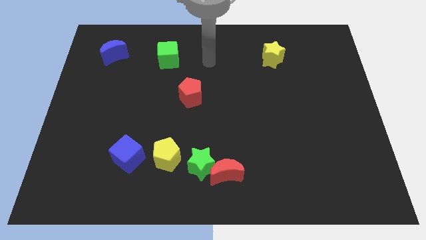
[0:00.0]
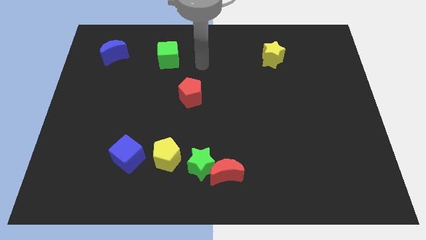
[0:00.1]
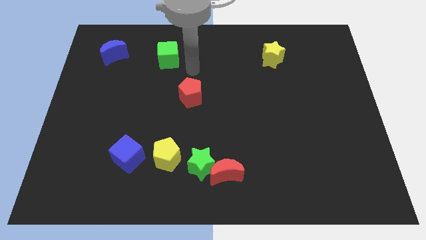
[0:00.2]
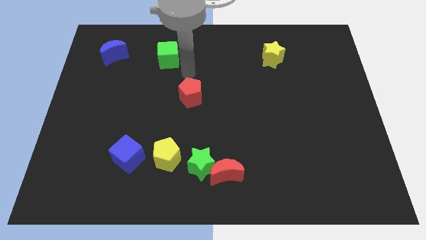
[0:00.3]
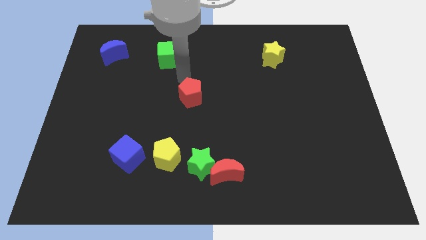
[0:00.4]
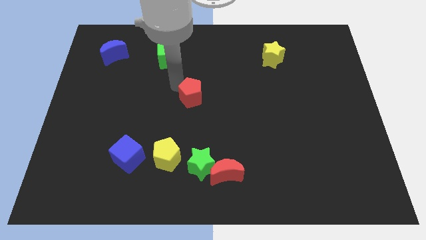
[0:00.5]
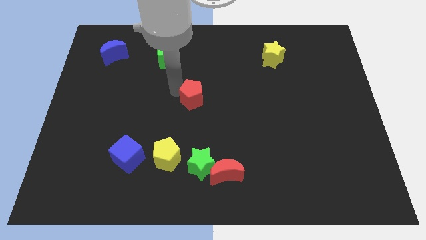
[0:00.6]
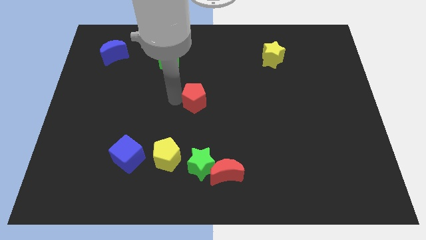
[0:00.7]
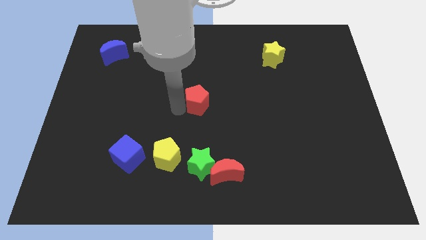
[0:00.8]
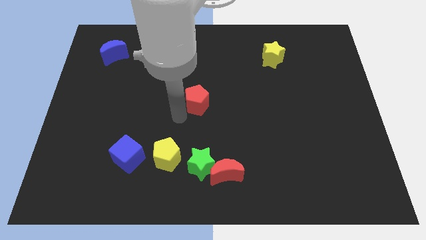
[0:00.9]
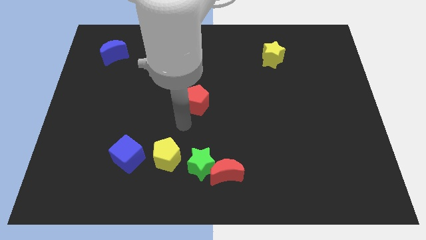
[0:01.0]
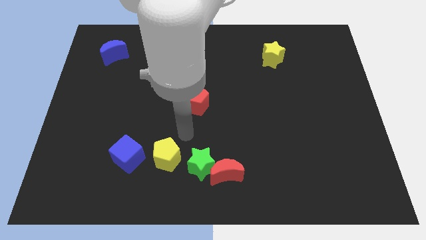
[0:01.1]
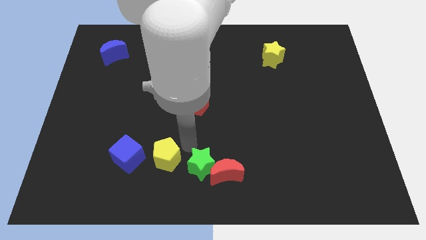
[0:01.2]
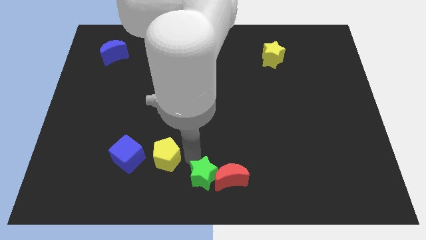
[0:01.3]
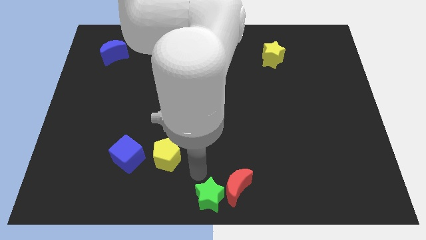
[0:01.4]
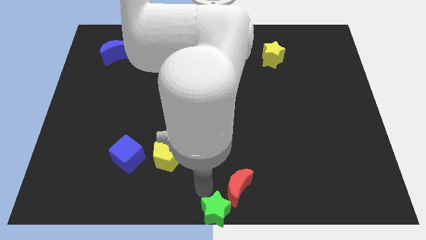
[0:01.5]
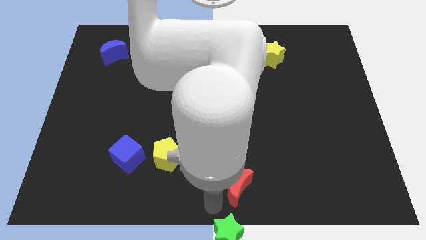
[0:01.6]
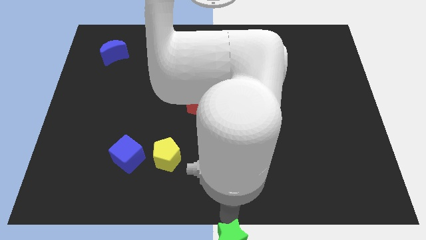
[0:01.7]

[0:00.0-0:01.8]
pull the red moon apart from the green star

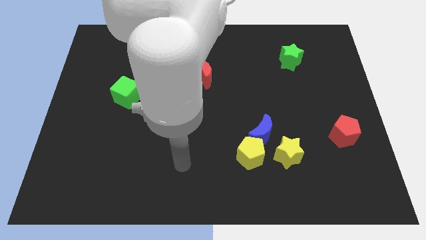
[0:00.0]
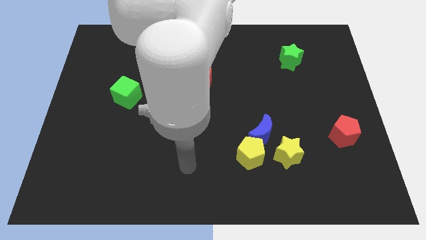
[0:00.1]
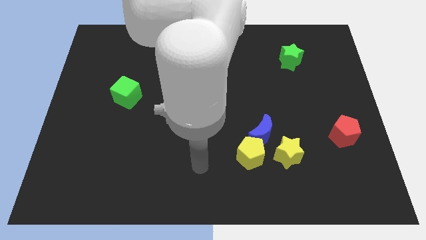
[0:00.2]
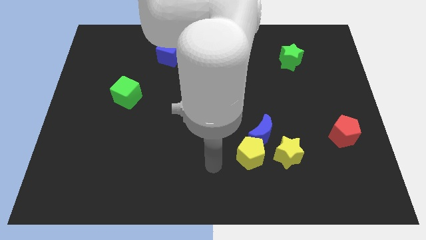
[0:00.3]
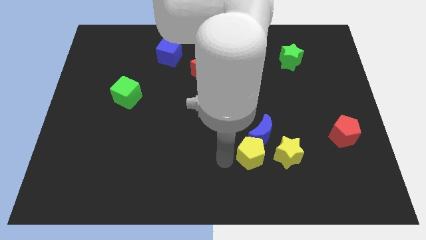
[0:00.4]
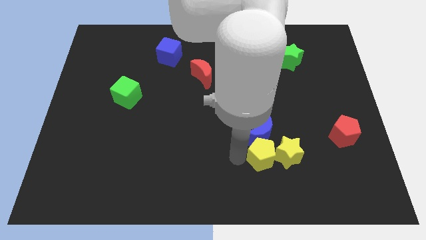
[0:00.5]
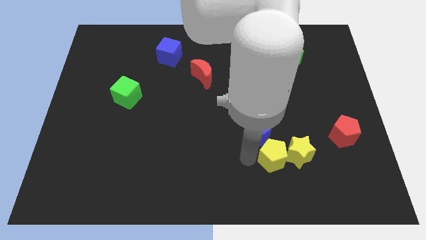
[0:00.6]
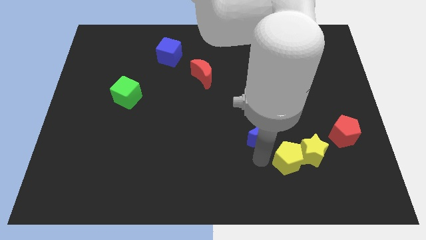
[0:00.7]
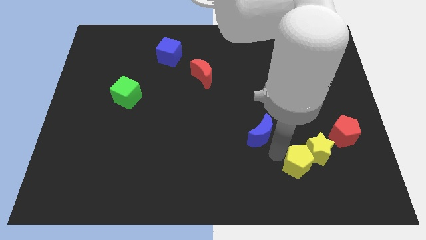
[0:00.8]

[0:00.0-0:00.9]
pull the blue moon apart from the yellow pentagon and yellow star

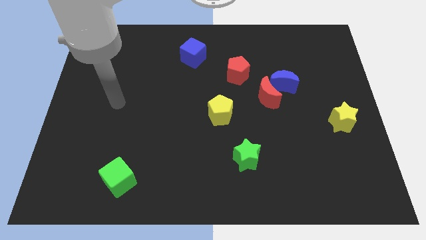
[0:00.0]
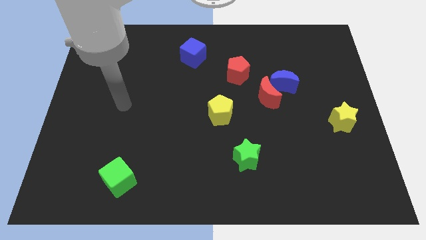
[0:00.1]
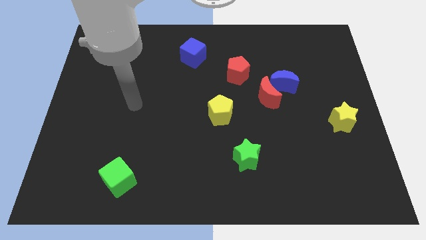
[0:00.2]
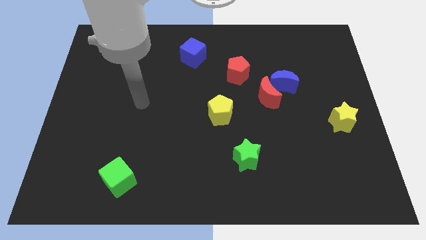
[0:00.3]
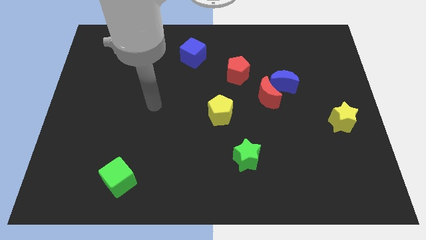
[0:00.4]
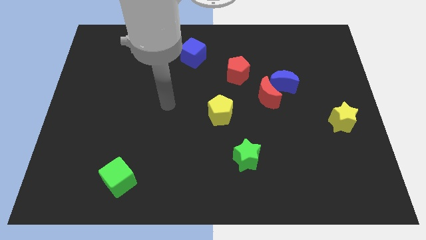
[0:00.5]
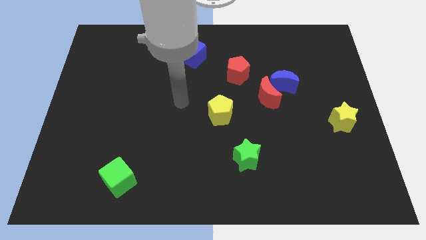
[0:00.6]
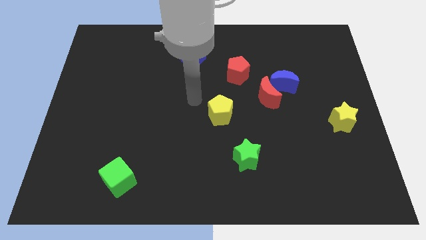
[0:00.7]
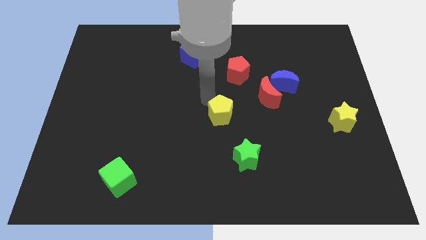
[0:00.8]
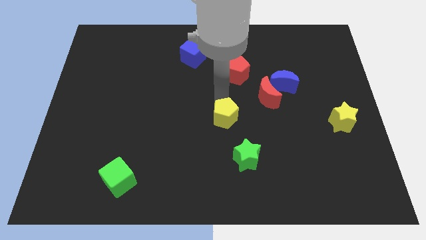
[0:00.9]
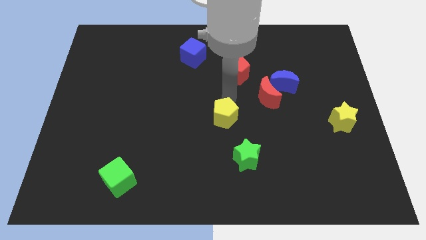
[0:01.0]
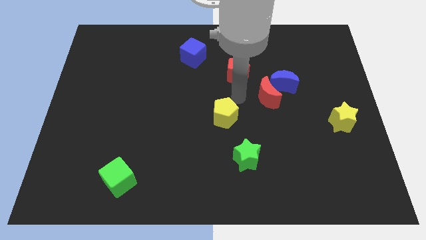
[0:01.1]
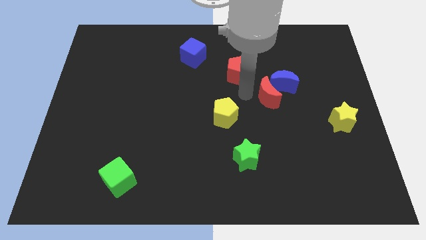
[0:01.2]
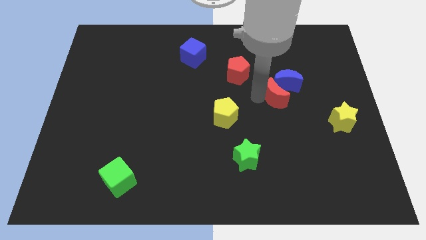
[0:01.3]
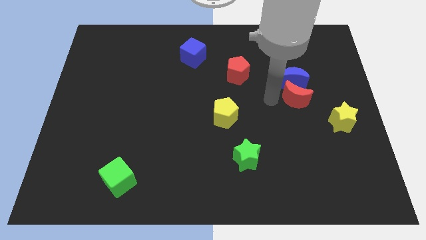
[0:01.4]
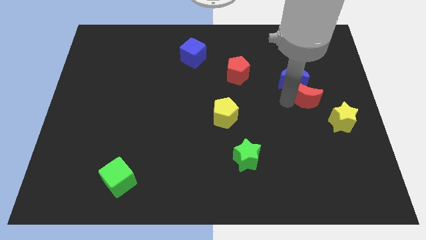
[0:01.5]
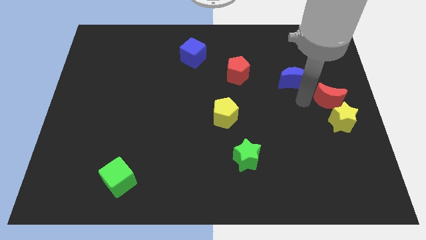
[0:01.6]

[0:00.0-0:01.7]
pull the blue moon apart from the red moon

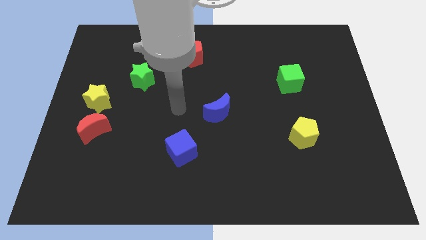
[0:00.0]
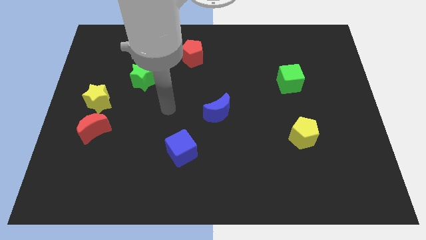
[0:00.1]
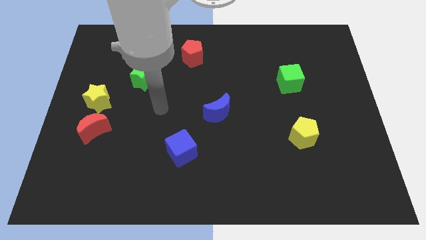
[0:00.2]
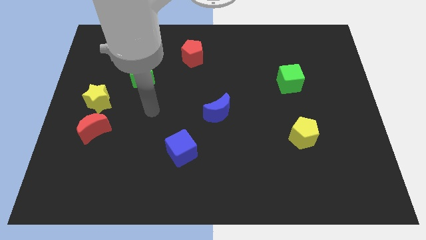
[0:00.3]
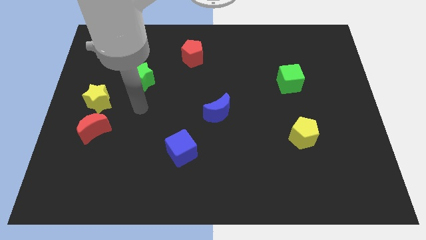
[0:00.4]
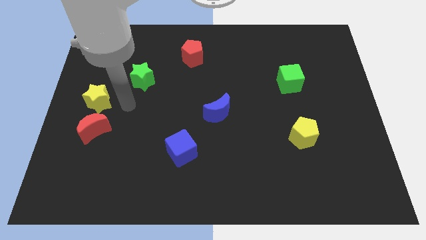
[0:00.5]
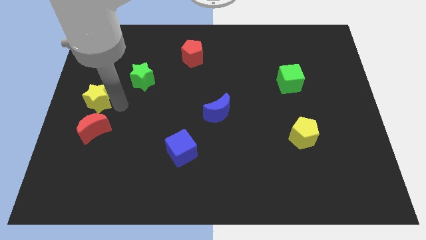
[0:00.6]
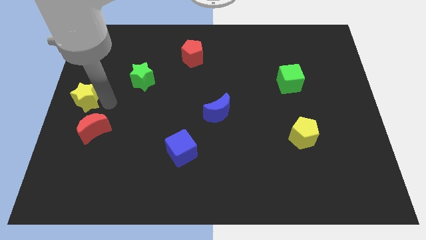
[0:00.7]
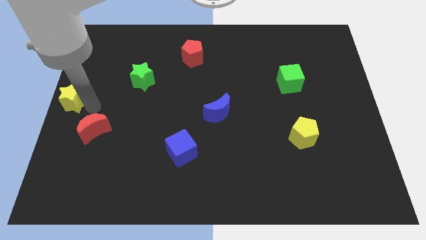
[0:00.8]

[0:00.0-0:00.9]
separate the red moon from the yellow star

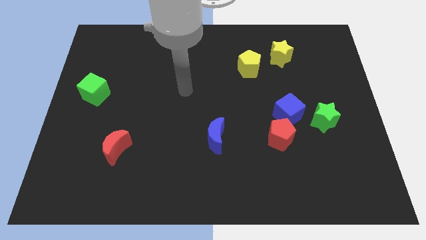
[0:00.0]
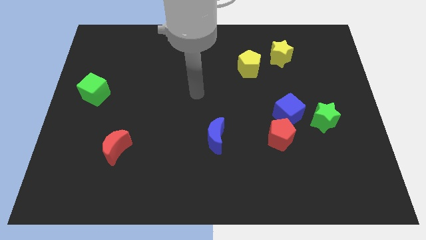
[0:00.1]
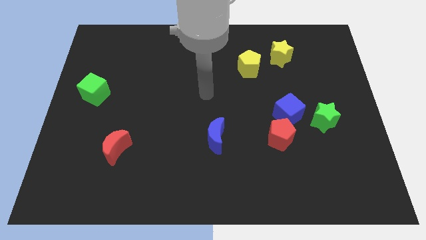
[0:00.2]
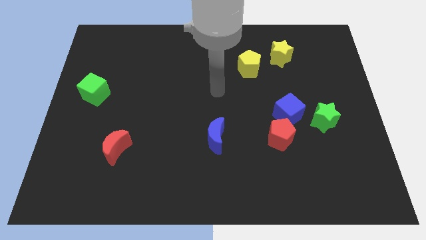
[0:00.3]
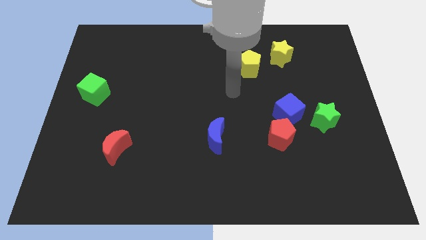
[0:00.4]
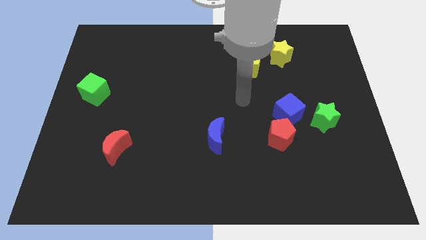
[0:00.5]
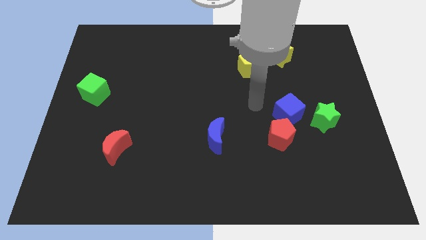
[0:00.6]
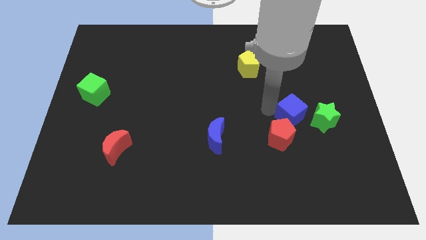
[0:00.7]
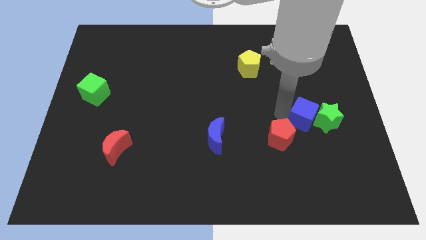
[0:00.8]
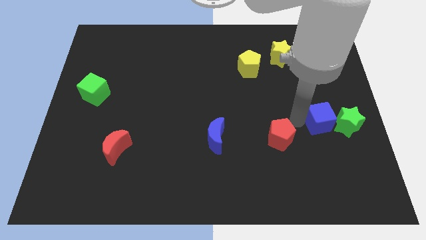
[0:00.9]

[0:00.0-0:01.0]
pull the red pentagon apart from the blue cube

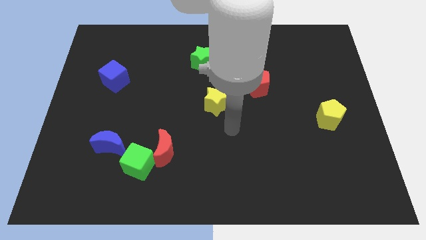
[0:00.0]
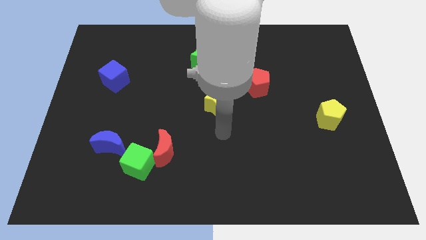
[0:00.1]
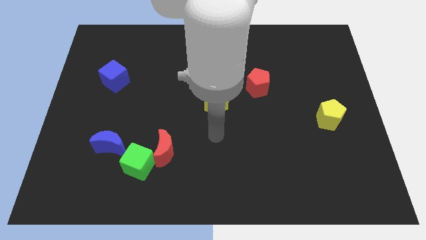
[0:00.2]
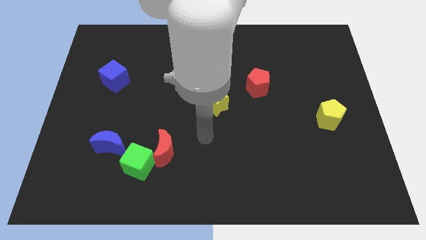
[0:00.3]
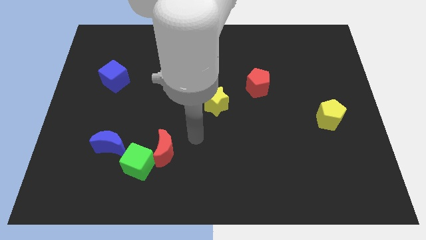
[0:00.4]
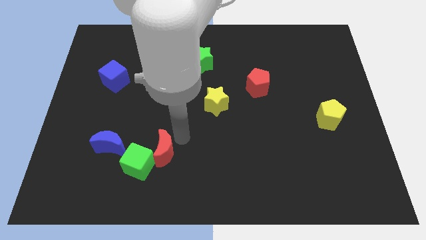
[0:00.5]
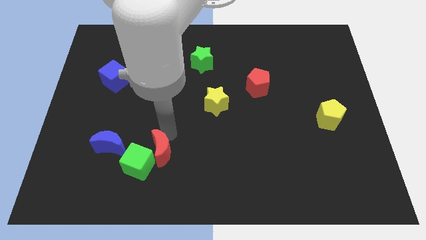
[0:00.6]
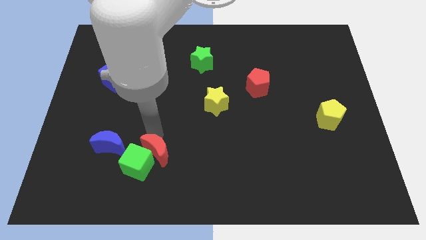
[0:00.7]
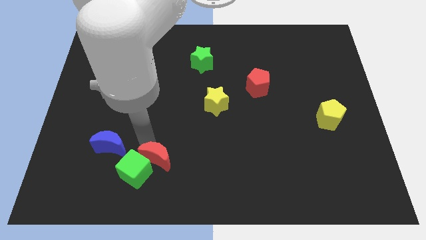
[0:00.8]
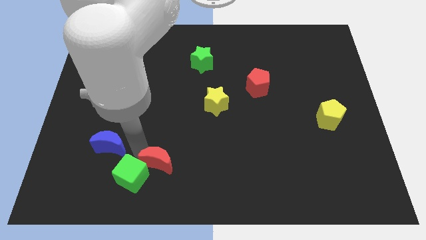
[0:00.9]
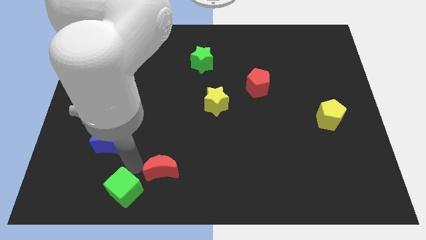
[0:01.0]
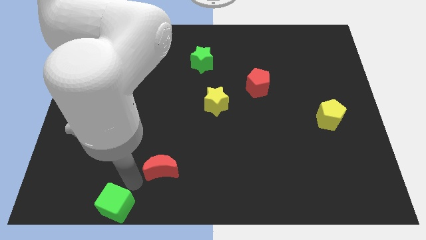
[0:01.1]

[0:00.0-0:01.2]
pull the red moon apart from the green cube

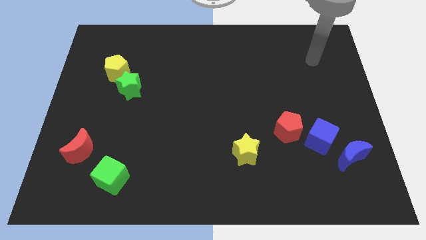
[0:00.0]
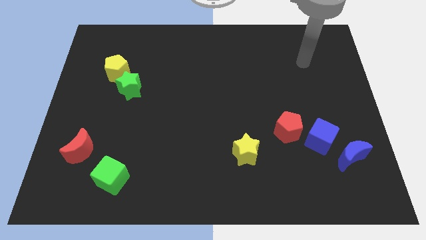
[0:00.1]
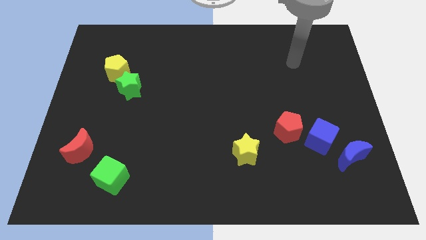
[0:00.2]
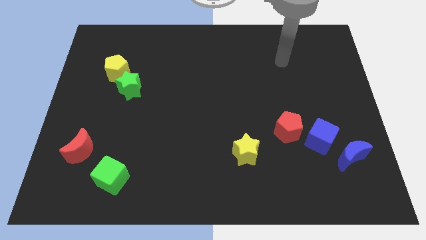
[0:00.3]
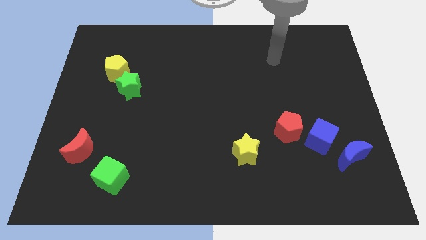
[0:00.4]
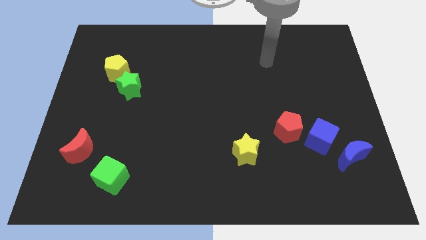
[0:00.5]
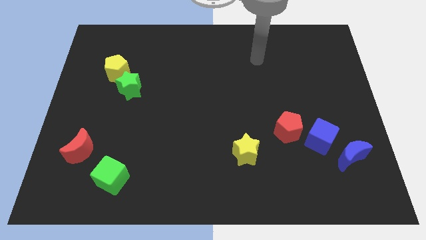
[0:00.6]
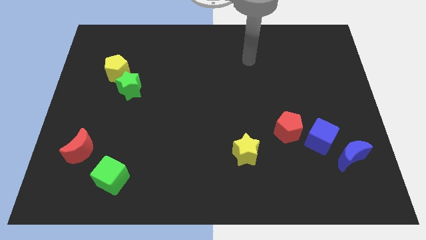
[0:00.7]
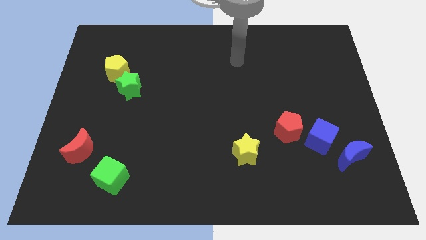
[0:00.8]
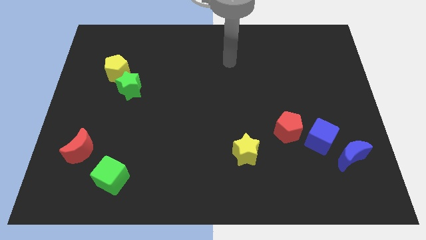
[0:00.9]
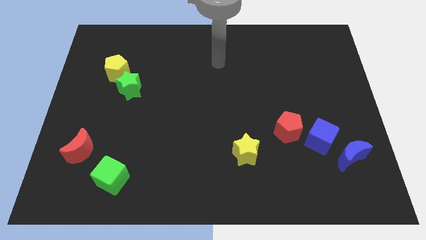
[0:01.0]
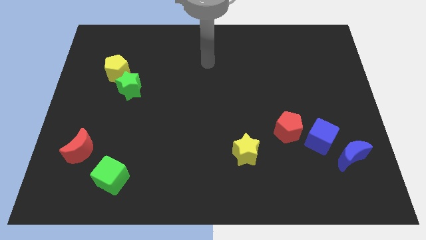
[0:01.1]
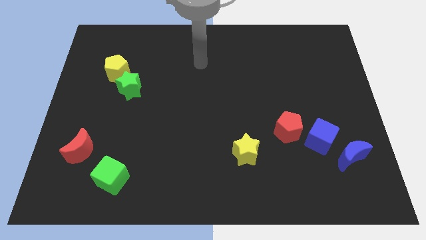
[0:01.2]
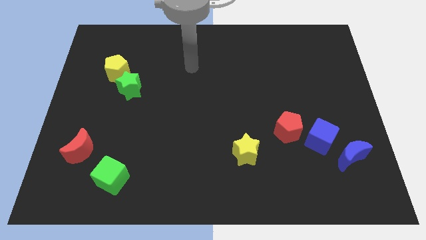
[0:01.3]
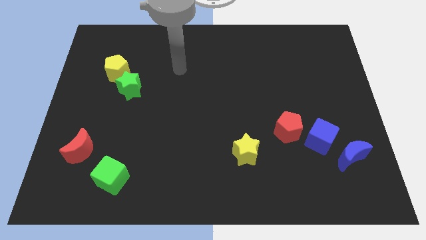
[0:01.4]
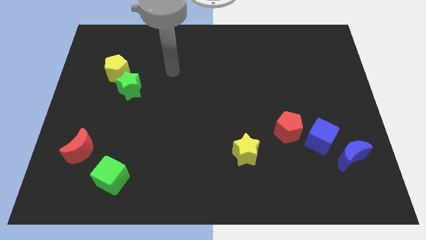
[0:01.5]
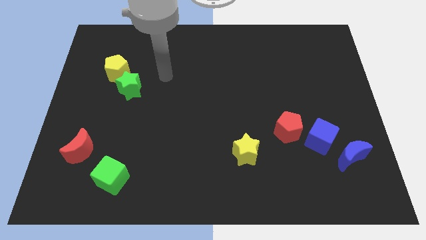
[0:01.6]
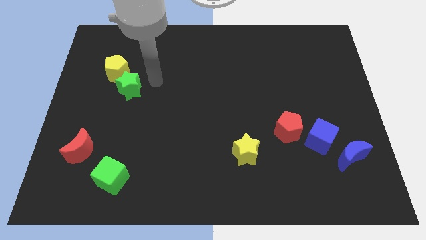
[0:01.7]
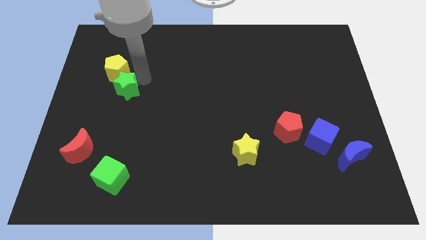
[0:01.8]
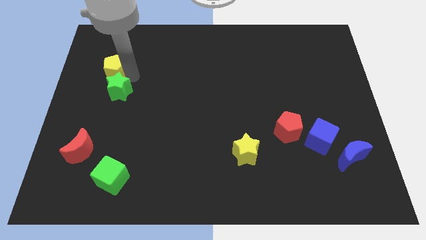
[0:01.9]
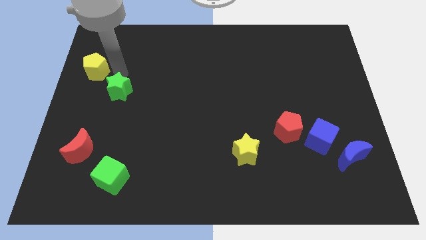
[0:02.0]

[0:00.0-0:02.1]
pull the green star apart from the yellow pentagon
